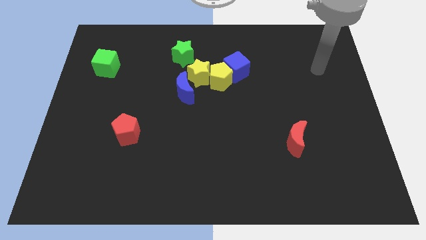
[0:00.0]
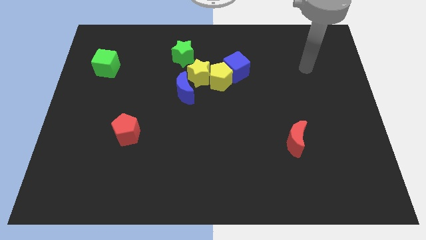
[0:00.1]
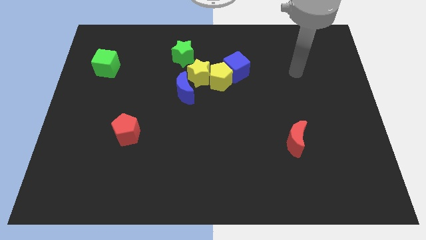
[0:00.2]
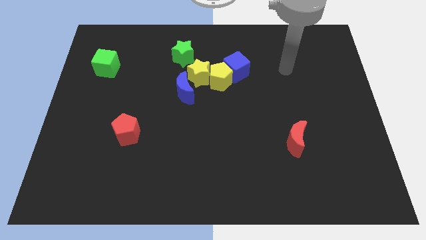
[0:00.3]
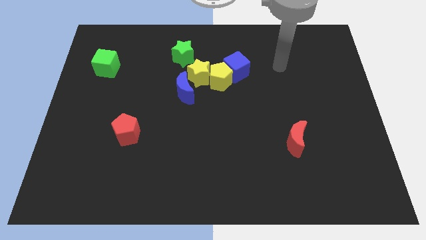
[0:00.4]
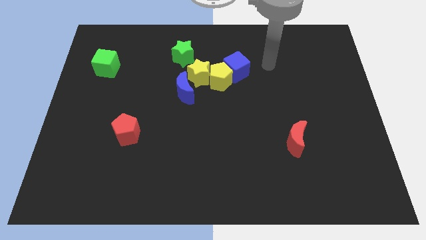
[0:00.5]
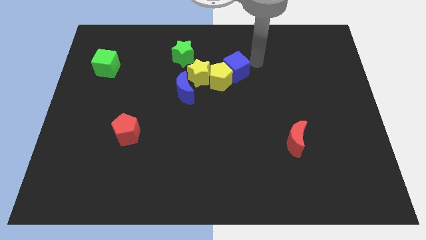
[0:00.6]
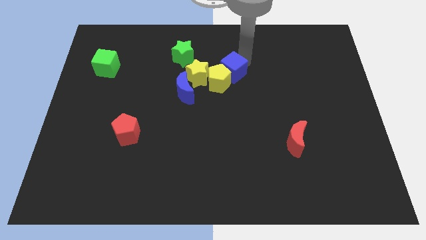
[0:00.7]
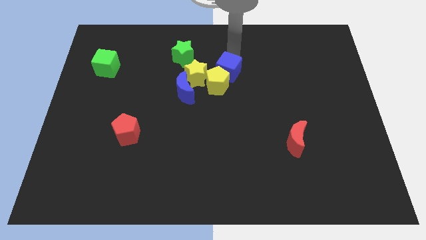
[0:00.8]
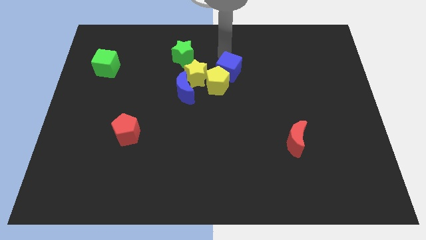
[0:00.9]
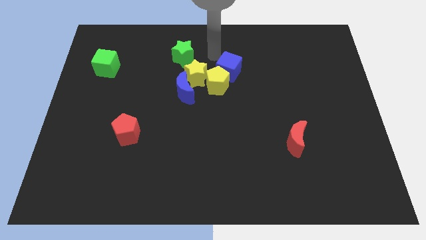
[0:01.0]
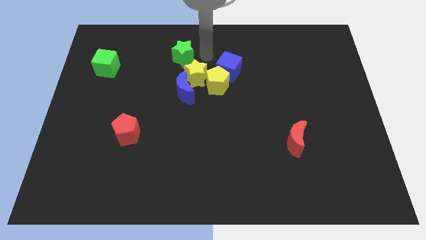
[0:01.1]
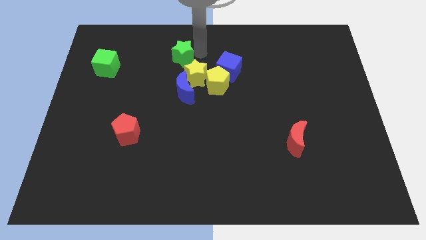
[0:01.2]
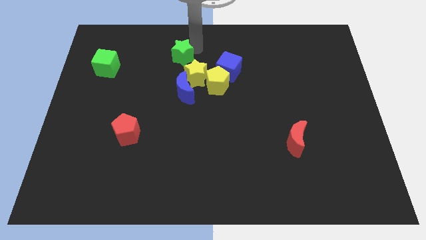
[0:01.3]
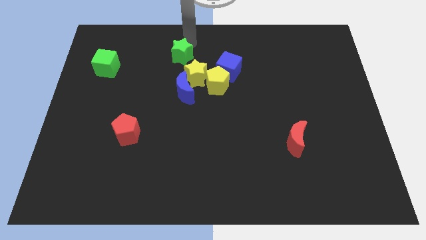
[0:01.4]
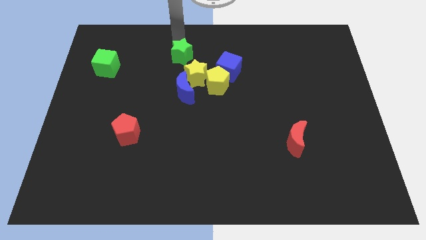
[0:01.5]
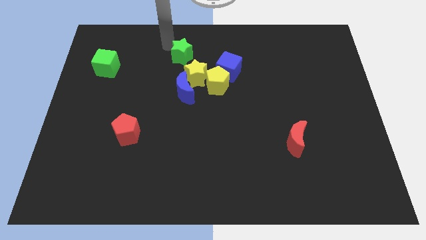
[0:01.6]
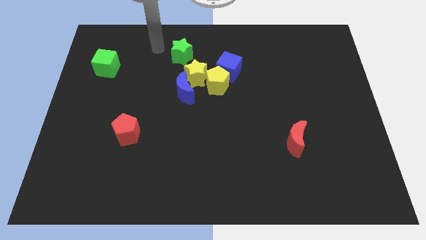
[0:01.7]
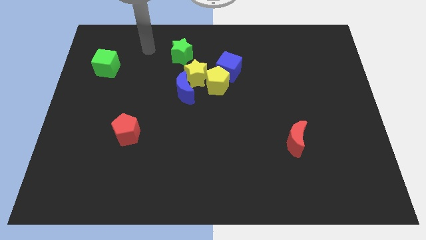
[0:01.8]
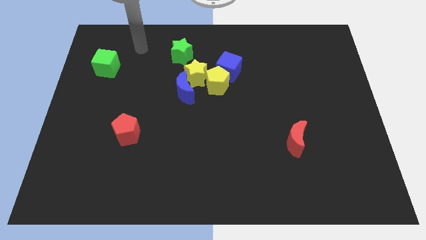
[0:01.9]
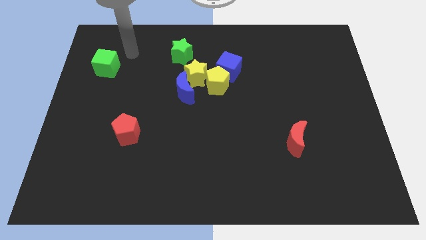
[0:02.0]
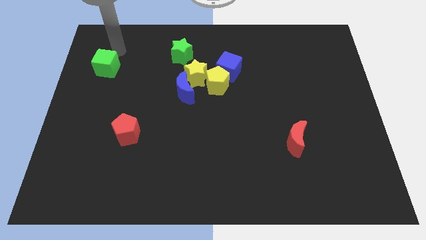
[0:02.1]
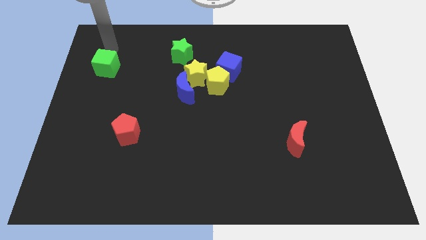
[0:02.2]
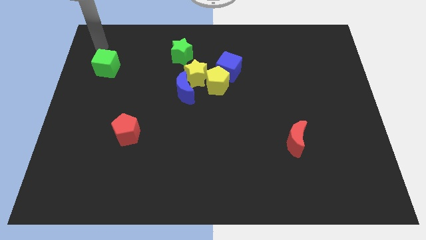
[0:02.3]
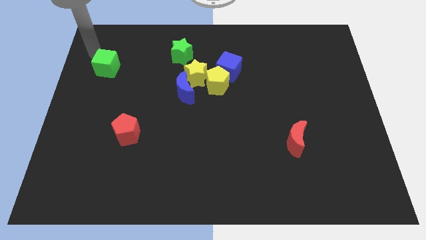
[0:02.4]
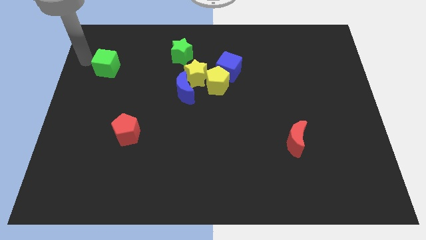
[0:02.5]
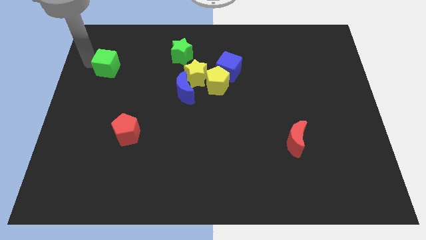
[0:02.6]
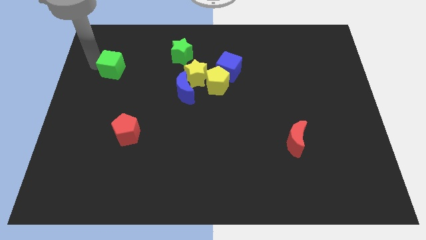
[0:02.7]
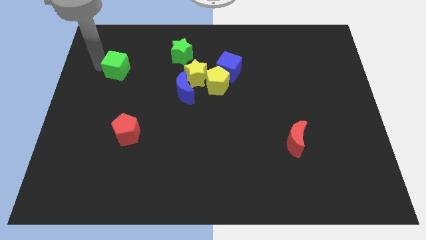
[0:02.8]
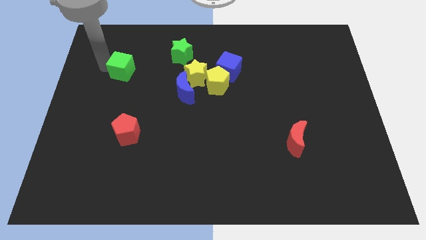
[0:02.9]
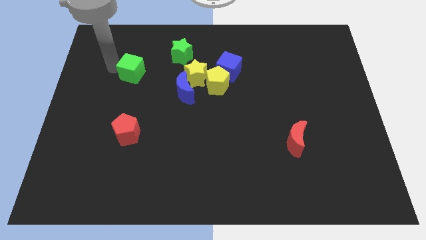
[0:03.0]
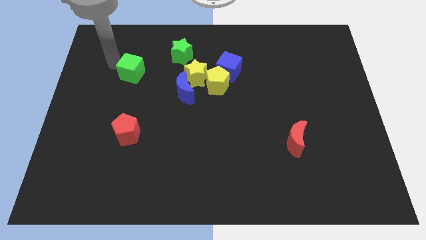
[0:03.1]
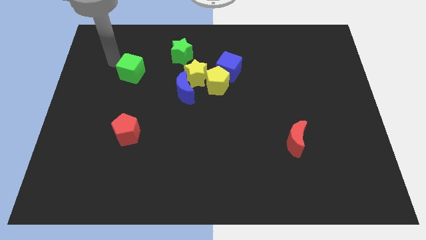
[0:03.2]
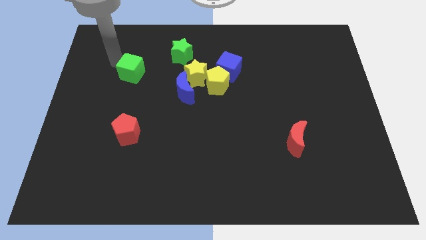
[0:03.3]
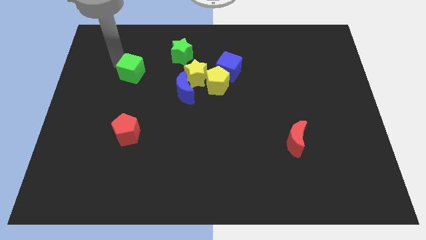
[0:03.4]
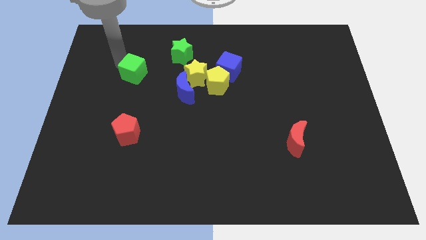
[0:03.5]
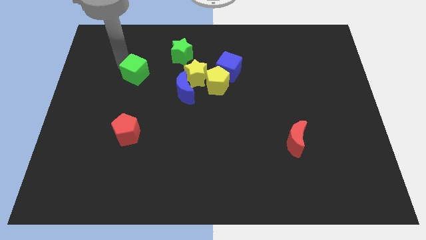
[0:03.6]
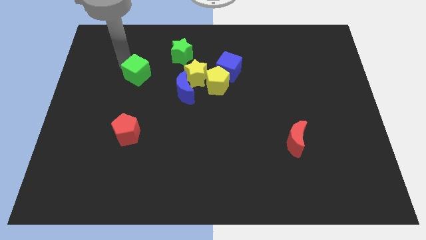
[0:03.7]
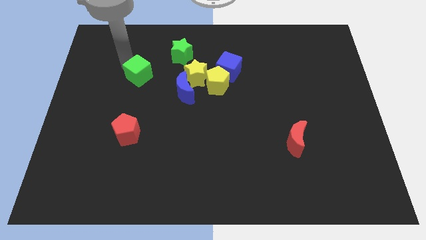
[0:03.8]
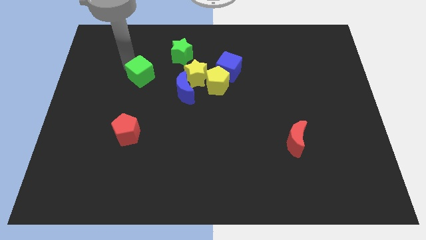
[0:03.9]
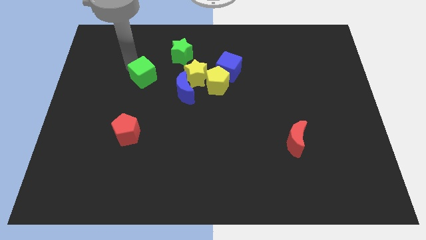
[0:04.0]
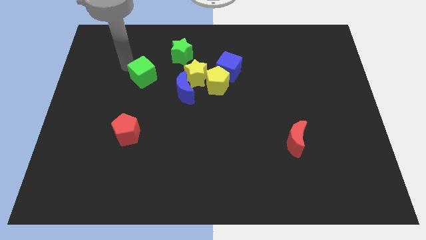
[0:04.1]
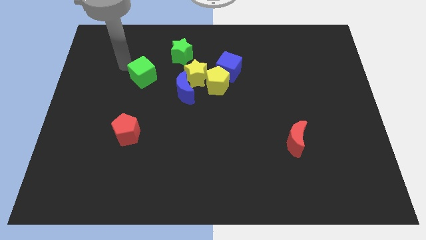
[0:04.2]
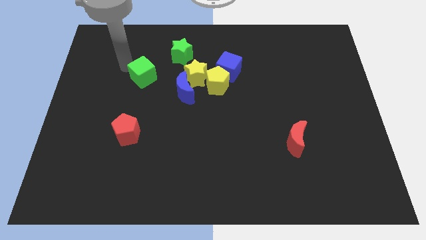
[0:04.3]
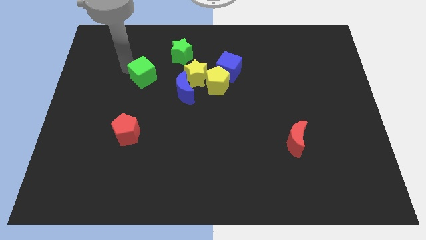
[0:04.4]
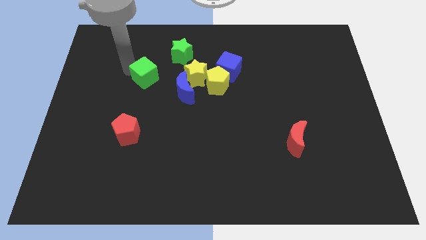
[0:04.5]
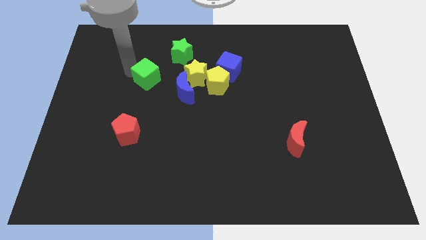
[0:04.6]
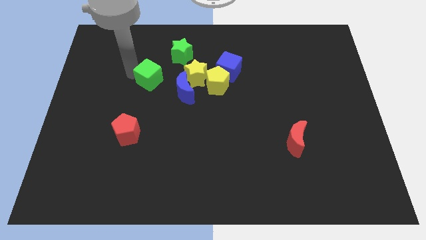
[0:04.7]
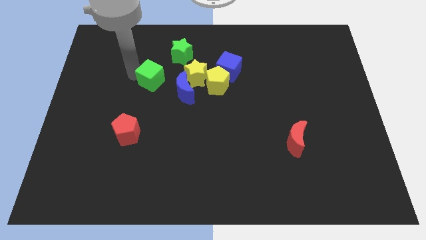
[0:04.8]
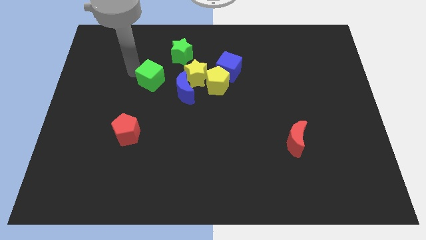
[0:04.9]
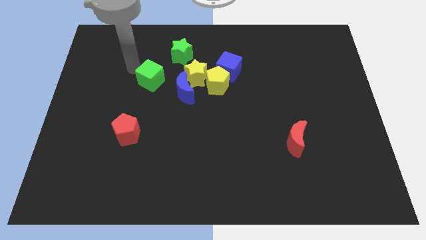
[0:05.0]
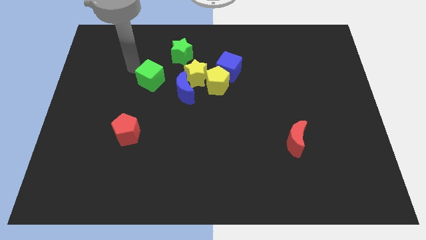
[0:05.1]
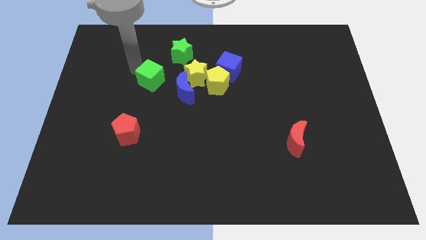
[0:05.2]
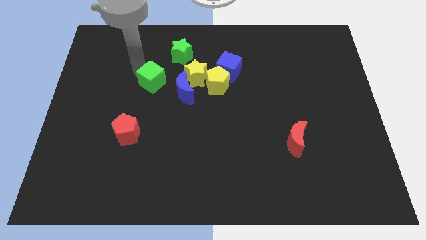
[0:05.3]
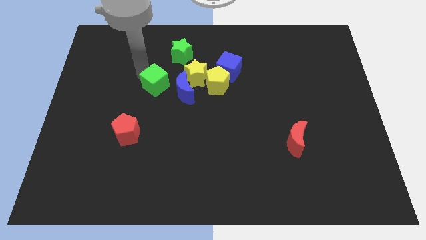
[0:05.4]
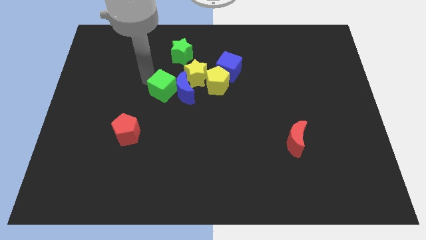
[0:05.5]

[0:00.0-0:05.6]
push the green cube next to the blue moon

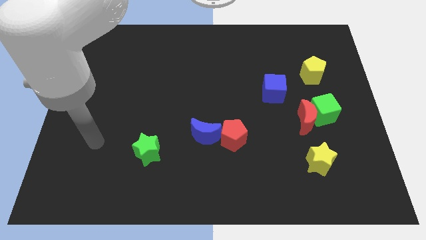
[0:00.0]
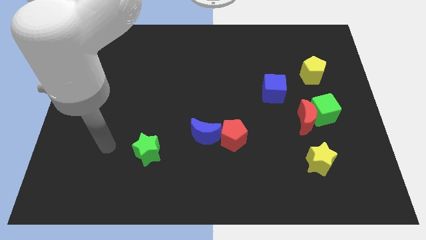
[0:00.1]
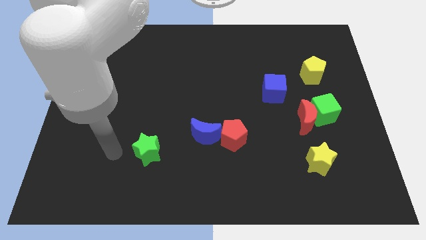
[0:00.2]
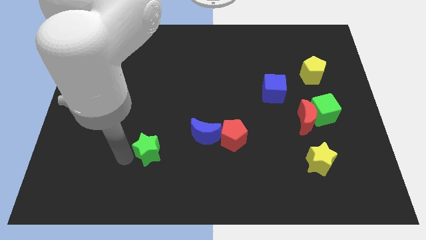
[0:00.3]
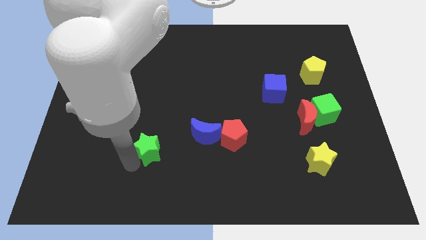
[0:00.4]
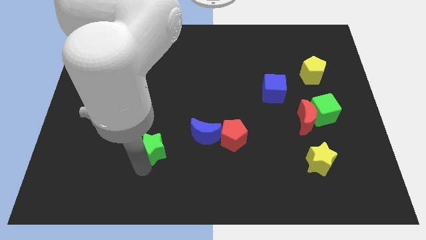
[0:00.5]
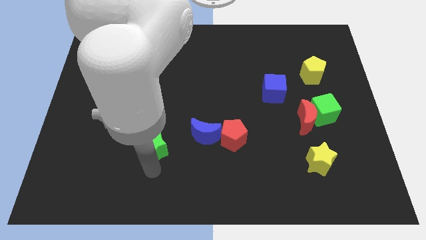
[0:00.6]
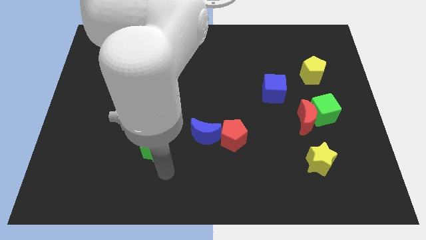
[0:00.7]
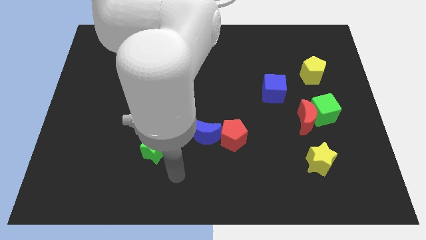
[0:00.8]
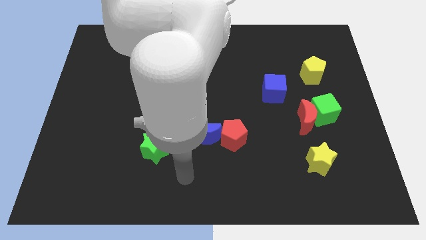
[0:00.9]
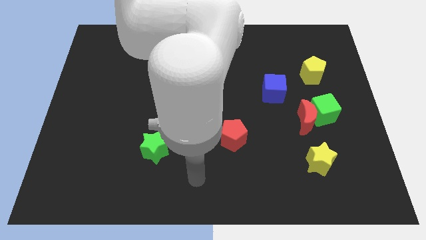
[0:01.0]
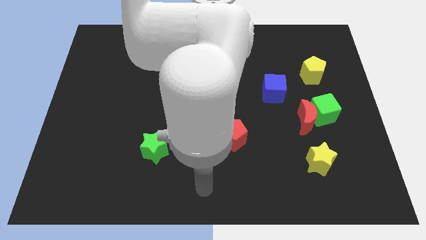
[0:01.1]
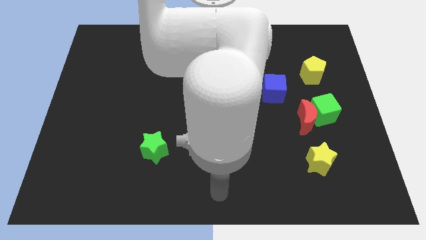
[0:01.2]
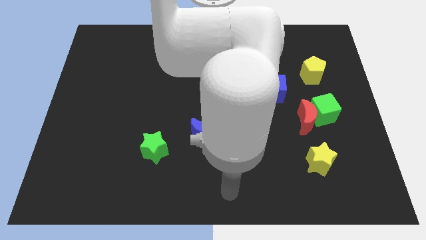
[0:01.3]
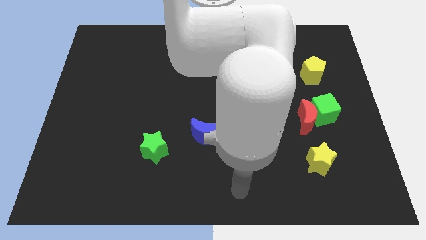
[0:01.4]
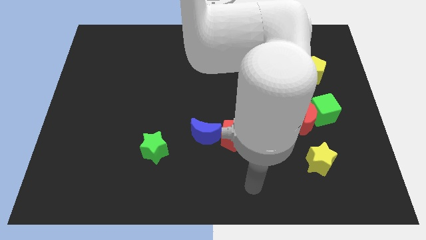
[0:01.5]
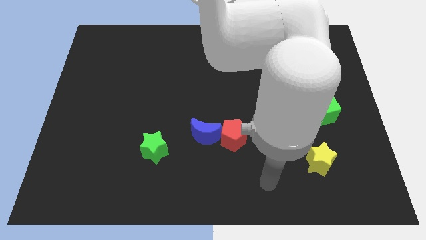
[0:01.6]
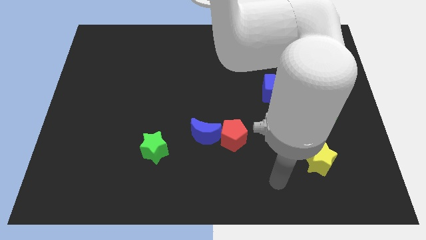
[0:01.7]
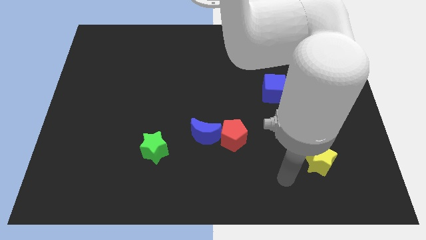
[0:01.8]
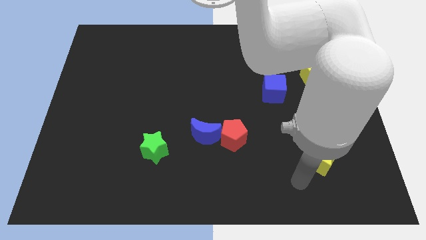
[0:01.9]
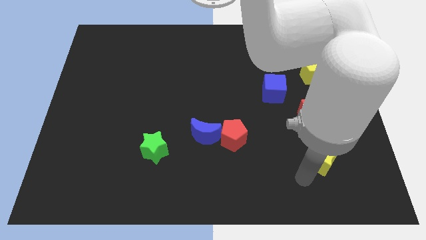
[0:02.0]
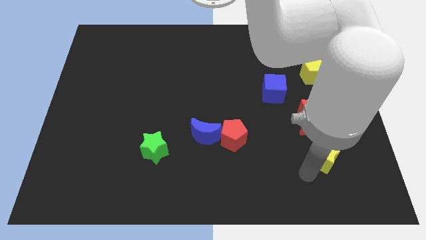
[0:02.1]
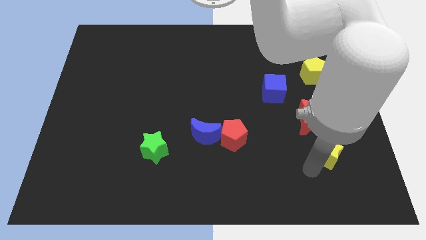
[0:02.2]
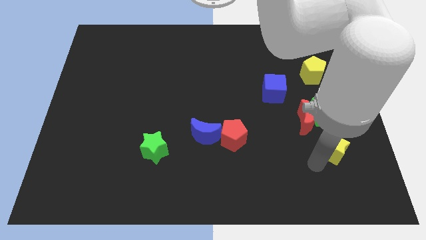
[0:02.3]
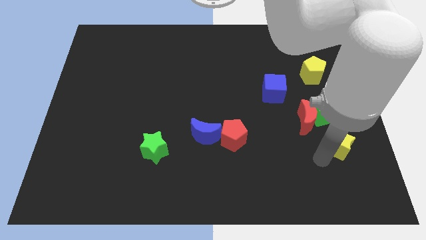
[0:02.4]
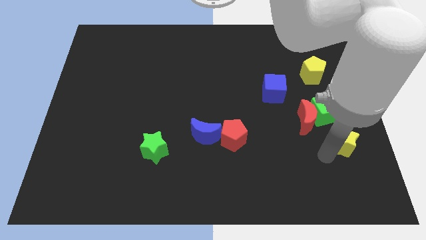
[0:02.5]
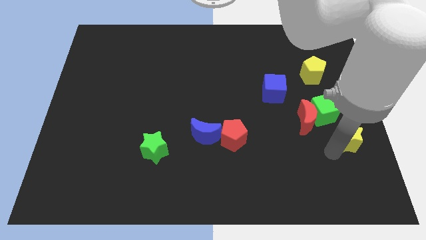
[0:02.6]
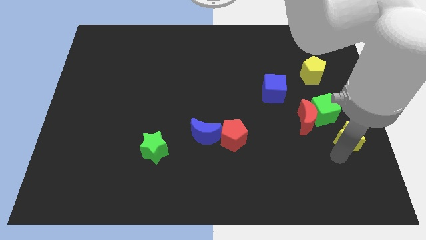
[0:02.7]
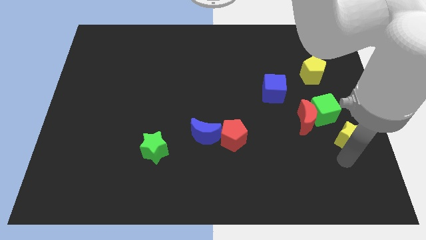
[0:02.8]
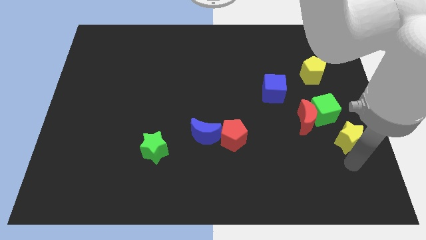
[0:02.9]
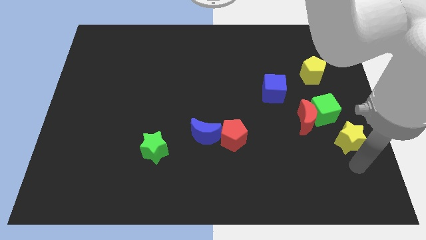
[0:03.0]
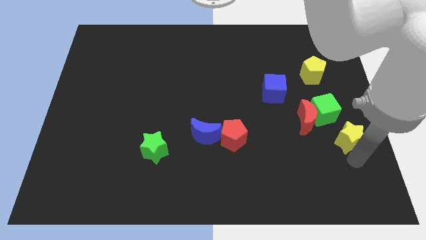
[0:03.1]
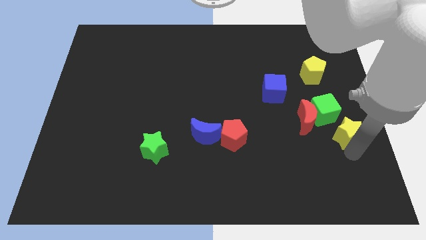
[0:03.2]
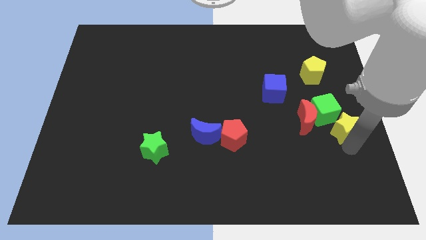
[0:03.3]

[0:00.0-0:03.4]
move the yellow star towards the green cube
